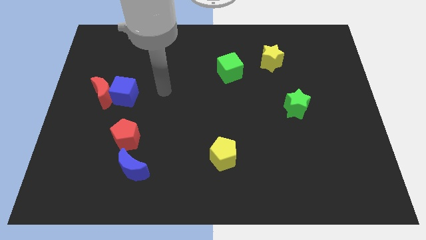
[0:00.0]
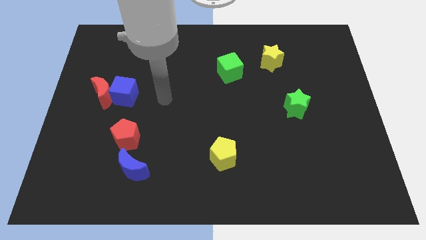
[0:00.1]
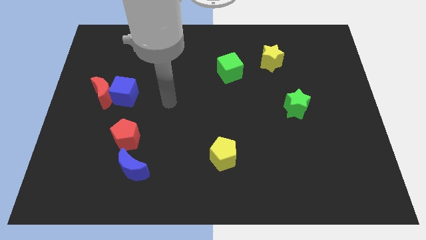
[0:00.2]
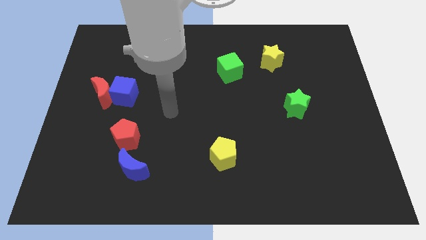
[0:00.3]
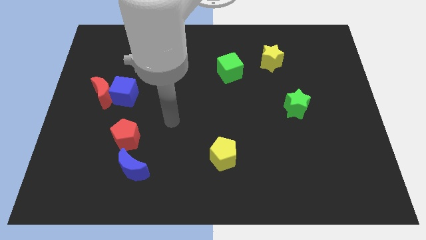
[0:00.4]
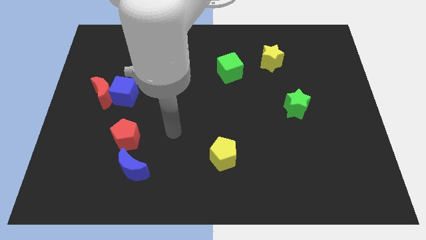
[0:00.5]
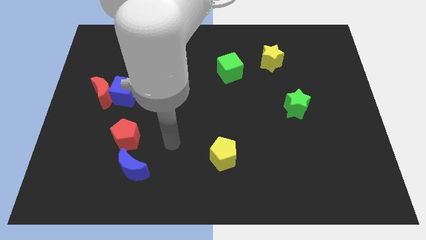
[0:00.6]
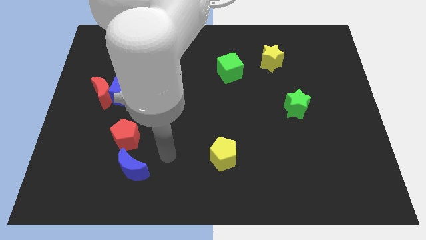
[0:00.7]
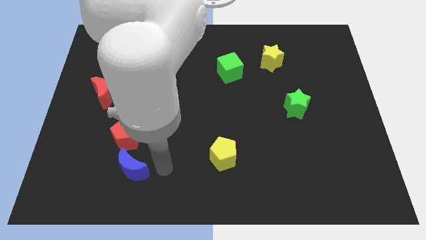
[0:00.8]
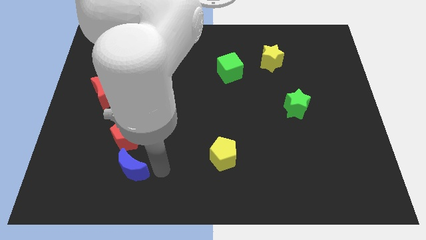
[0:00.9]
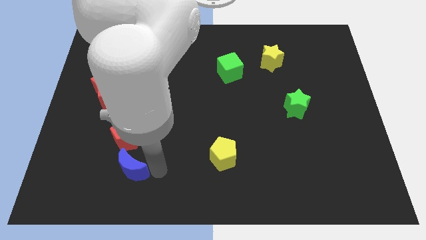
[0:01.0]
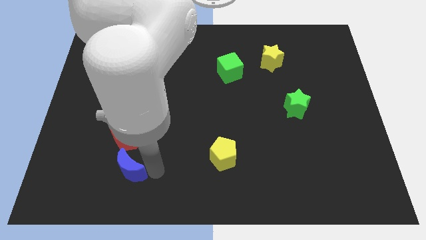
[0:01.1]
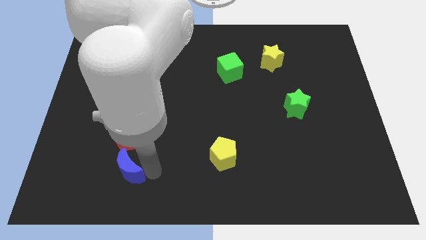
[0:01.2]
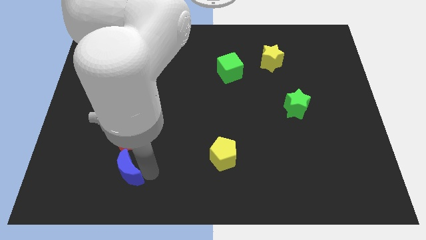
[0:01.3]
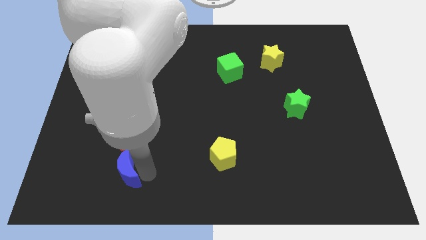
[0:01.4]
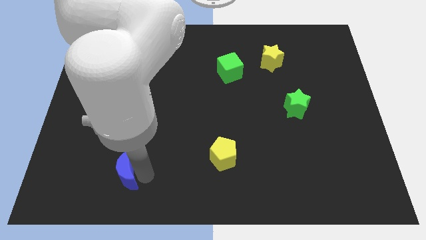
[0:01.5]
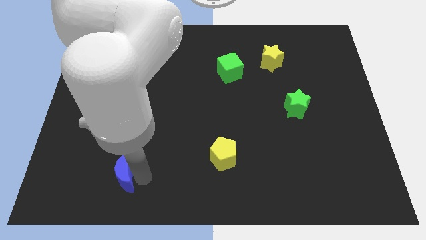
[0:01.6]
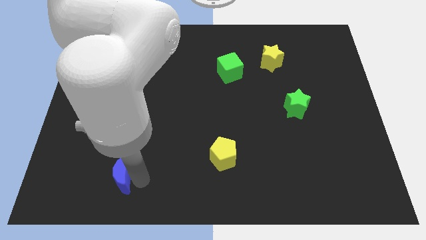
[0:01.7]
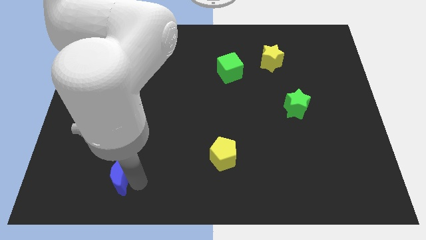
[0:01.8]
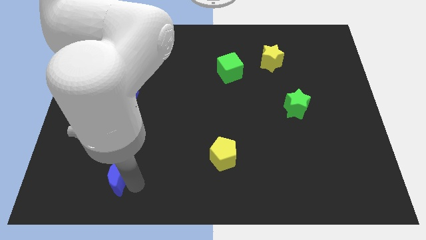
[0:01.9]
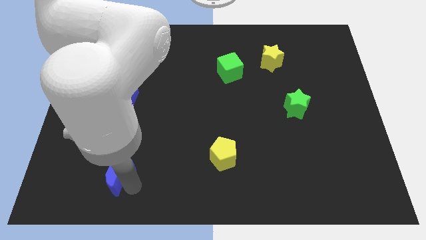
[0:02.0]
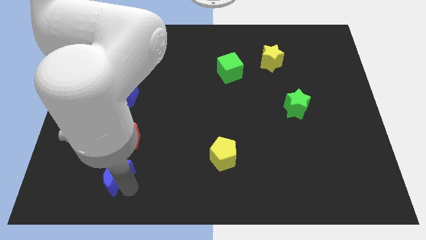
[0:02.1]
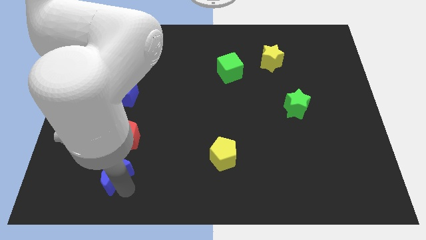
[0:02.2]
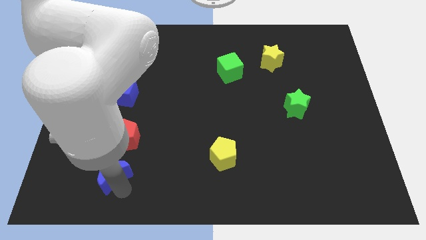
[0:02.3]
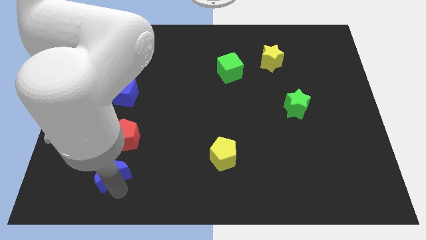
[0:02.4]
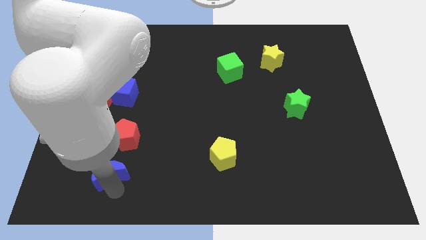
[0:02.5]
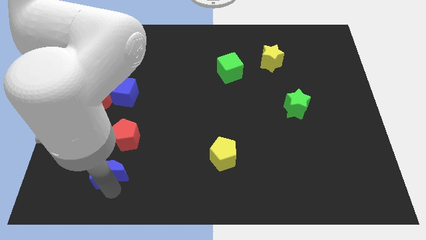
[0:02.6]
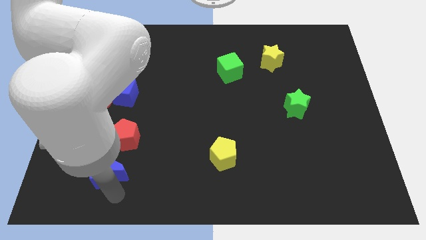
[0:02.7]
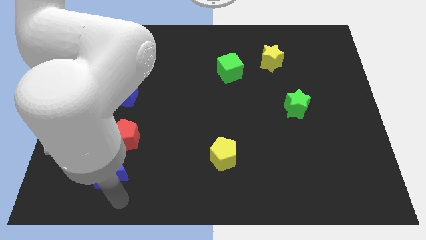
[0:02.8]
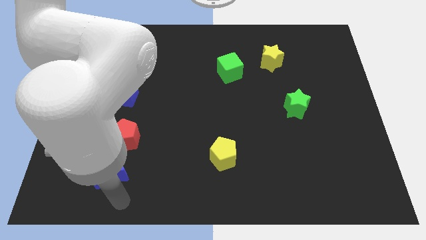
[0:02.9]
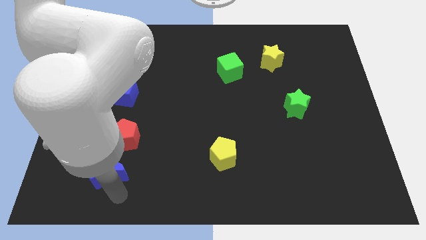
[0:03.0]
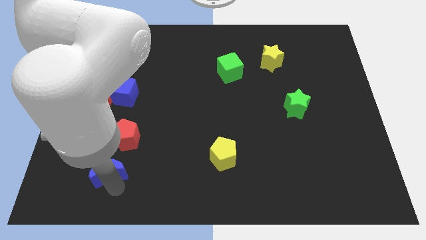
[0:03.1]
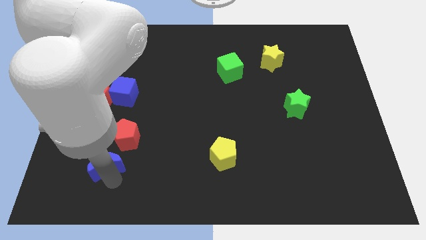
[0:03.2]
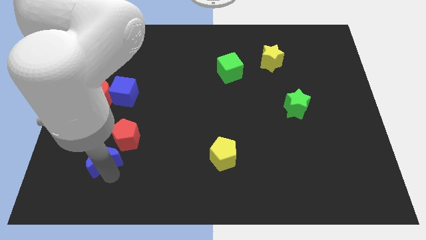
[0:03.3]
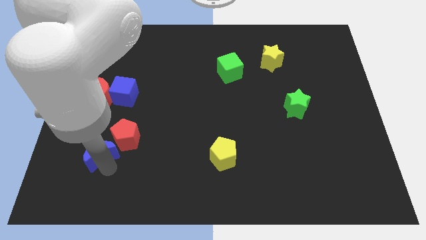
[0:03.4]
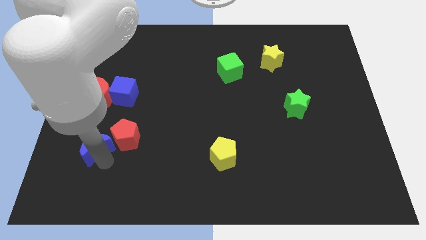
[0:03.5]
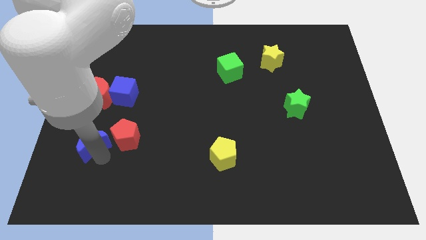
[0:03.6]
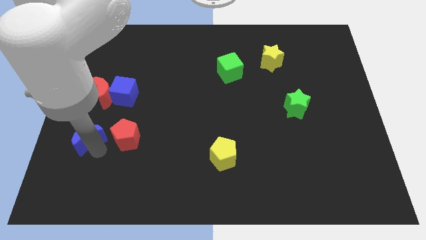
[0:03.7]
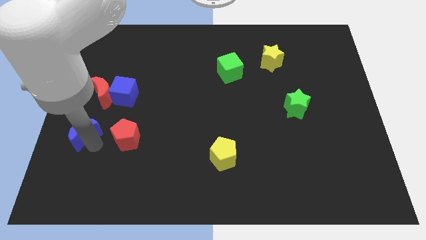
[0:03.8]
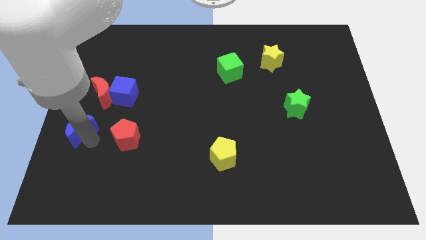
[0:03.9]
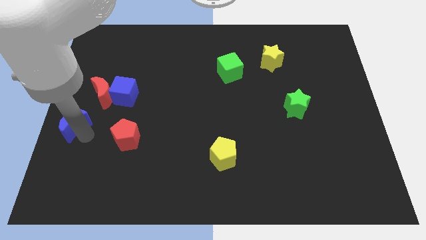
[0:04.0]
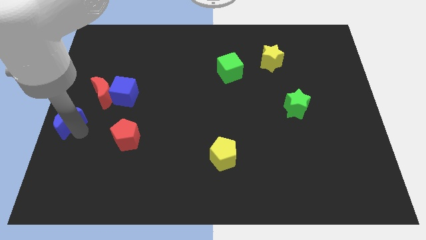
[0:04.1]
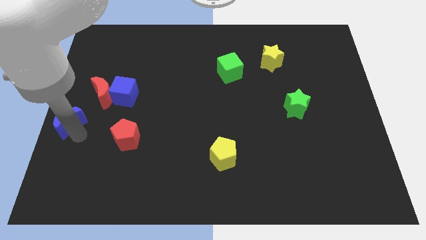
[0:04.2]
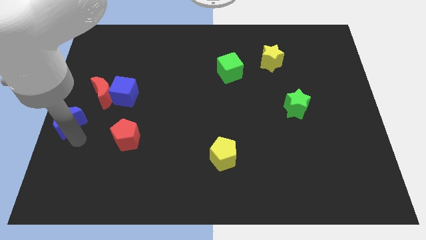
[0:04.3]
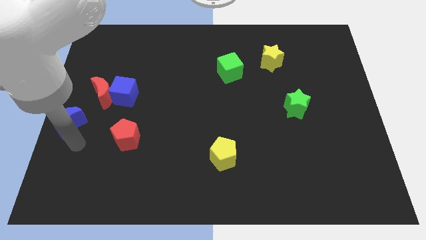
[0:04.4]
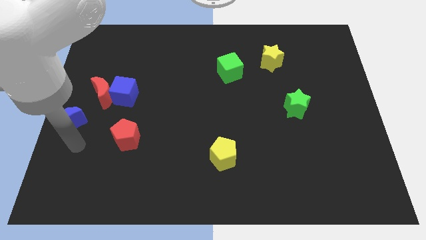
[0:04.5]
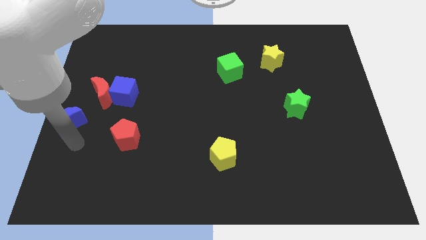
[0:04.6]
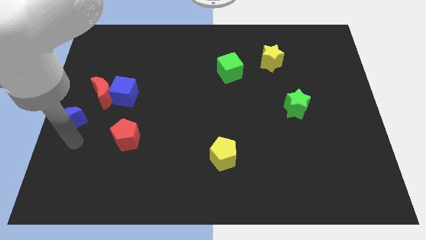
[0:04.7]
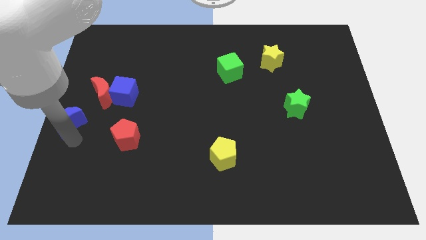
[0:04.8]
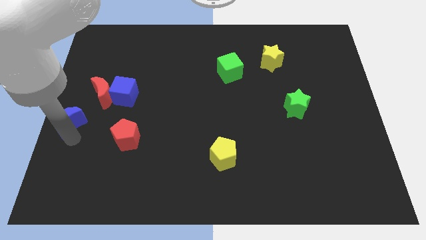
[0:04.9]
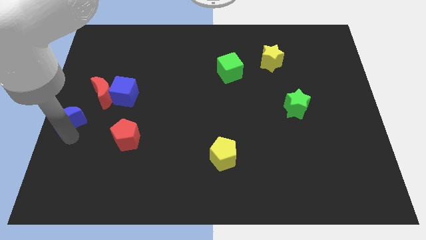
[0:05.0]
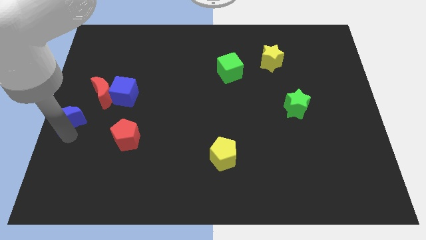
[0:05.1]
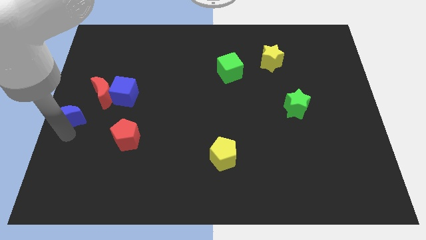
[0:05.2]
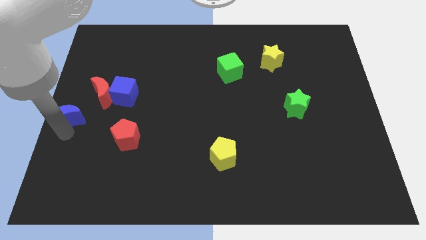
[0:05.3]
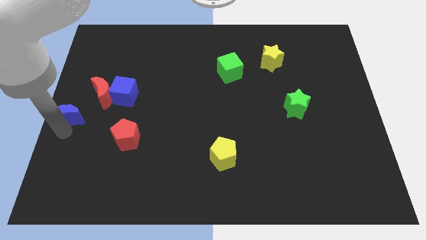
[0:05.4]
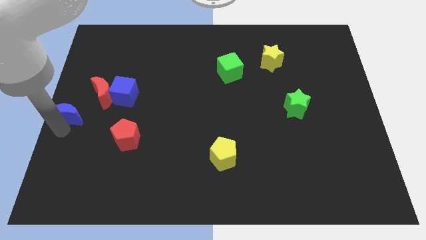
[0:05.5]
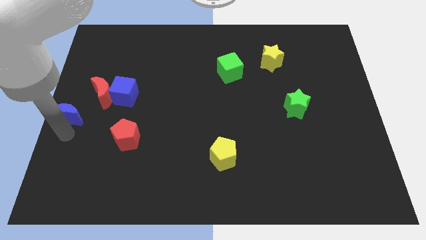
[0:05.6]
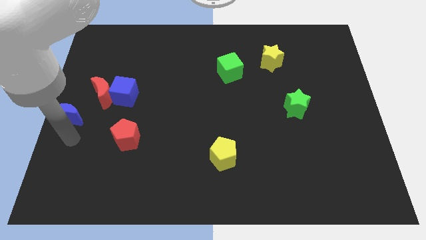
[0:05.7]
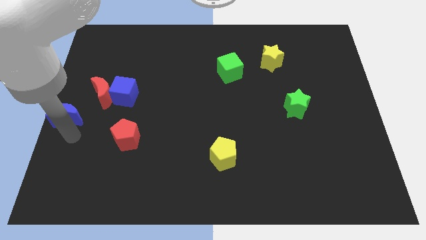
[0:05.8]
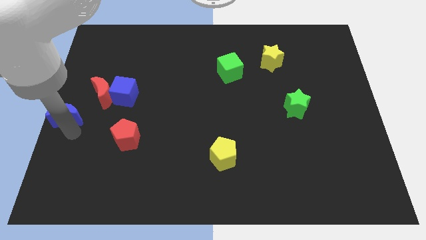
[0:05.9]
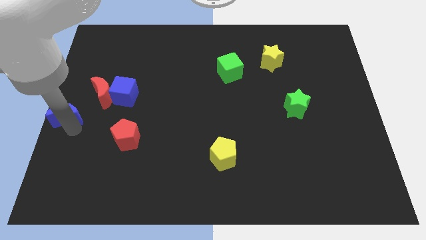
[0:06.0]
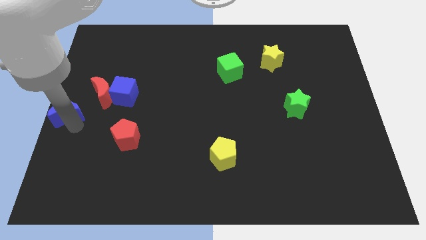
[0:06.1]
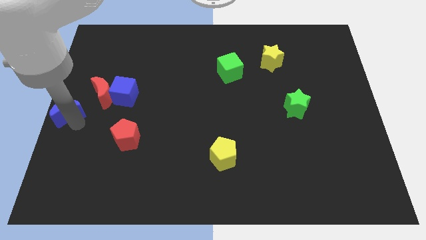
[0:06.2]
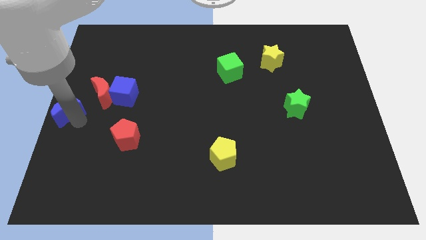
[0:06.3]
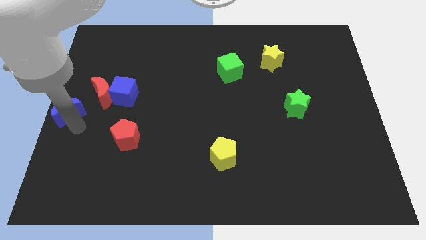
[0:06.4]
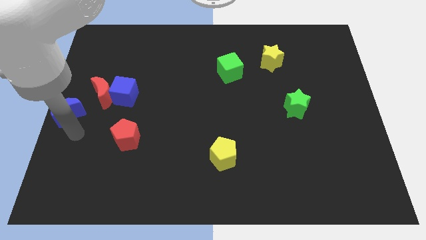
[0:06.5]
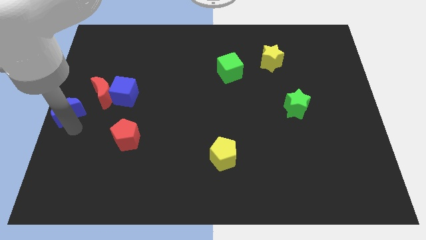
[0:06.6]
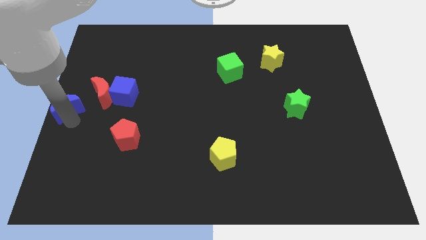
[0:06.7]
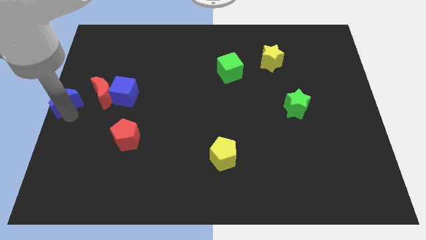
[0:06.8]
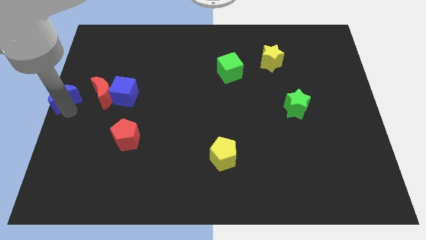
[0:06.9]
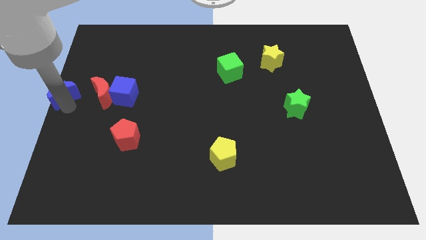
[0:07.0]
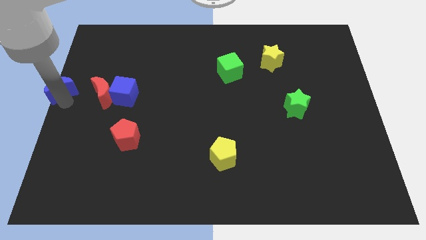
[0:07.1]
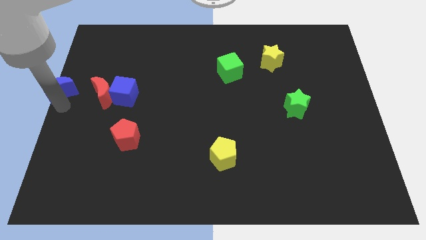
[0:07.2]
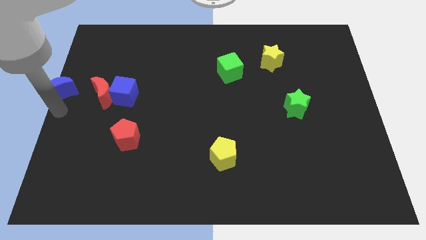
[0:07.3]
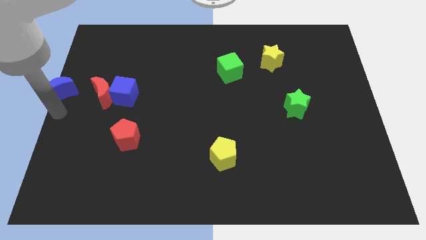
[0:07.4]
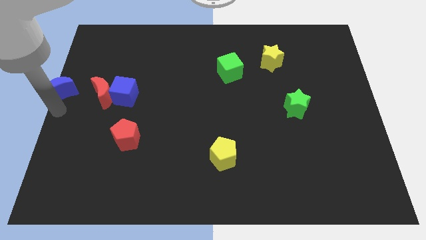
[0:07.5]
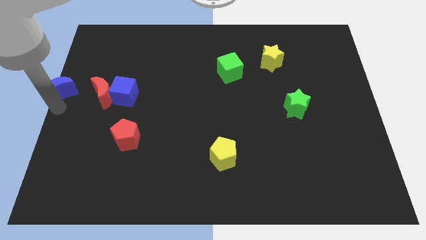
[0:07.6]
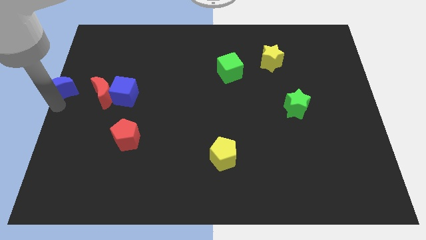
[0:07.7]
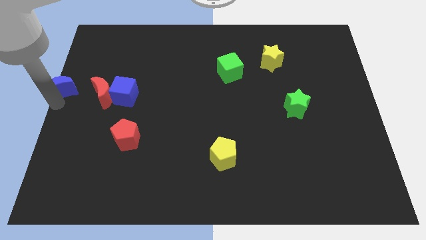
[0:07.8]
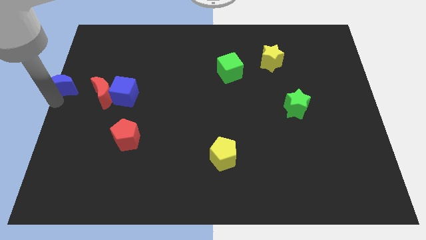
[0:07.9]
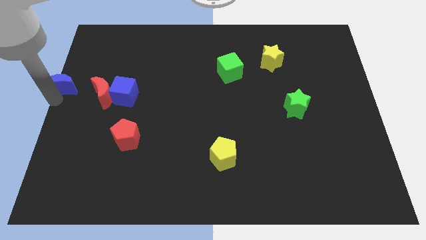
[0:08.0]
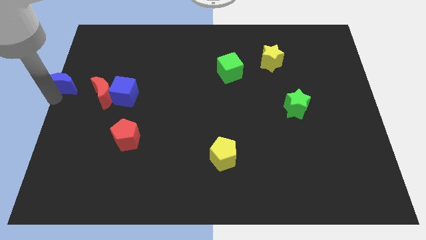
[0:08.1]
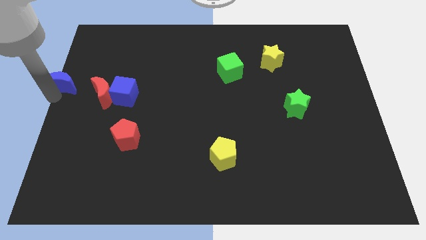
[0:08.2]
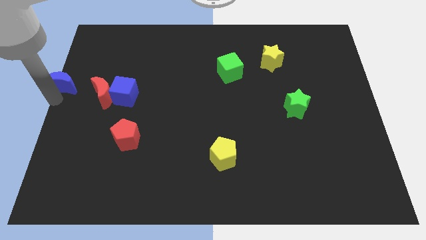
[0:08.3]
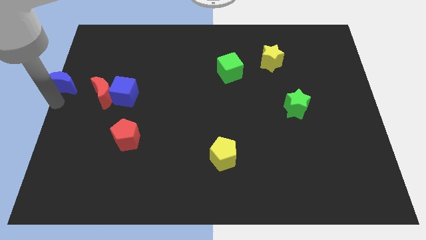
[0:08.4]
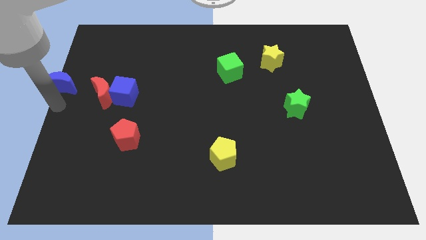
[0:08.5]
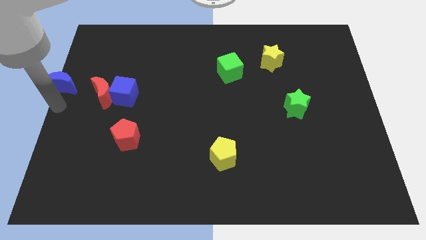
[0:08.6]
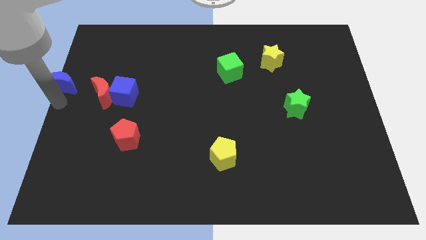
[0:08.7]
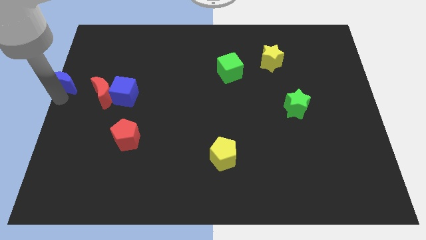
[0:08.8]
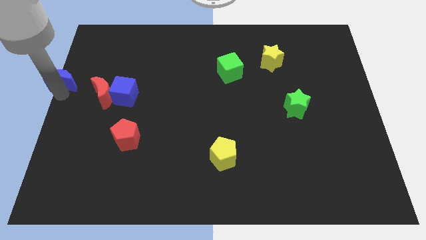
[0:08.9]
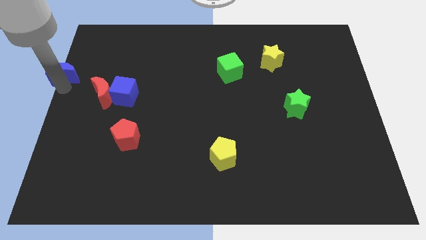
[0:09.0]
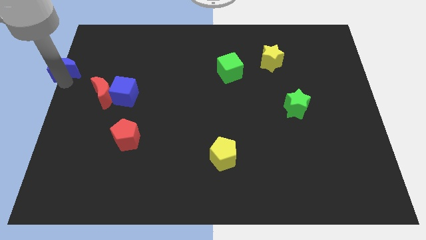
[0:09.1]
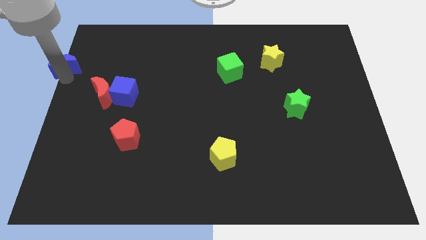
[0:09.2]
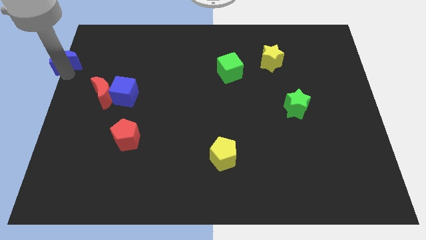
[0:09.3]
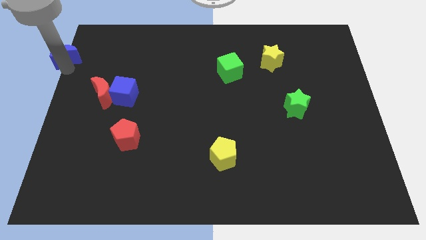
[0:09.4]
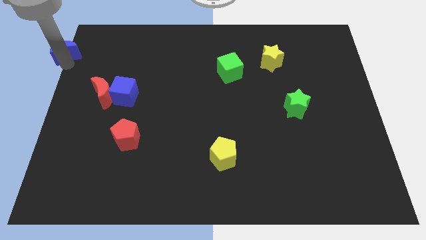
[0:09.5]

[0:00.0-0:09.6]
push the blue moon to the top left corner
